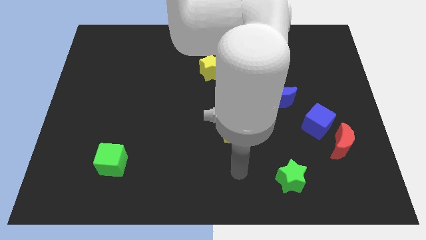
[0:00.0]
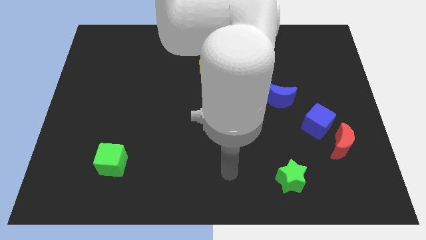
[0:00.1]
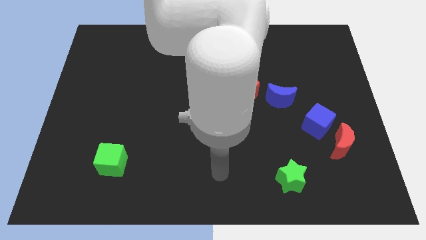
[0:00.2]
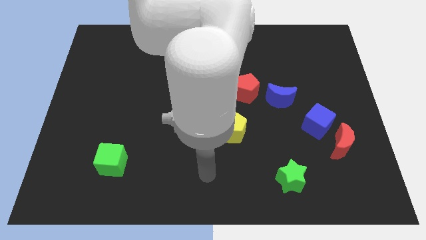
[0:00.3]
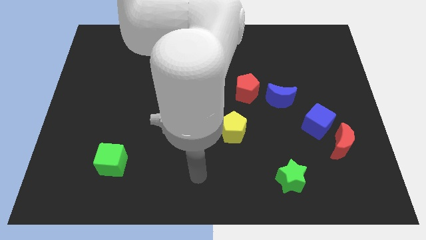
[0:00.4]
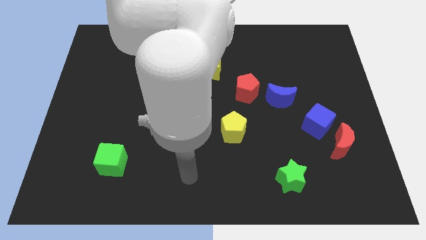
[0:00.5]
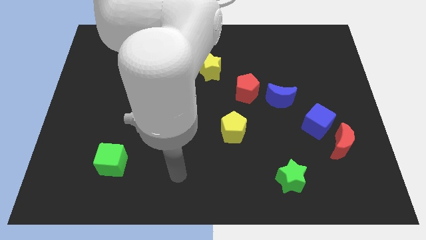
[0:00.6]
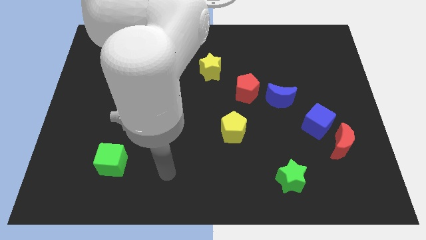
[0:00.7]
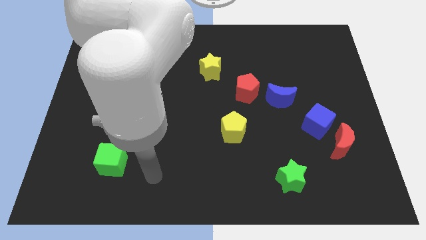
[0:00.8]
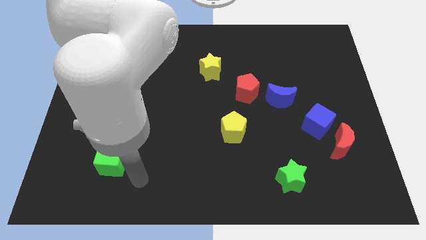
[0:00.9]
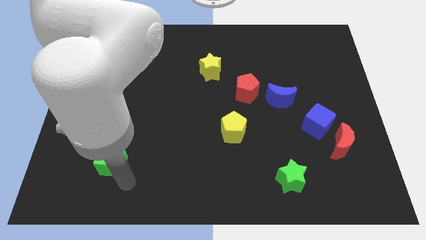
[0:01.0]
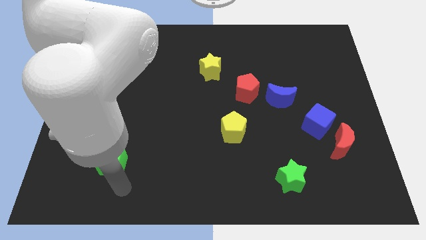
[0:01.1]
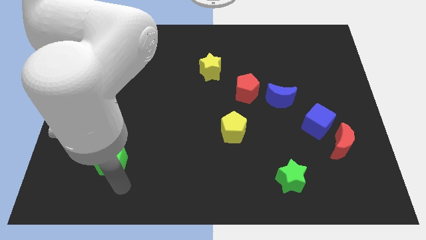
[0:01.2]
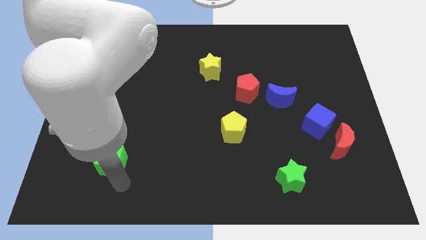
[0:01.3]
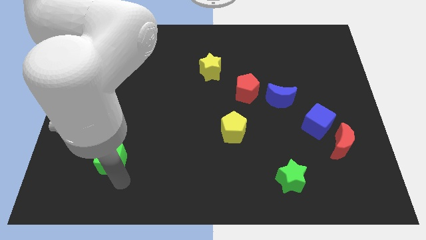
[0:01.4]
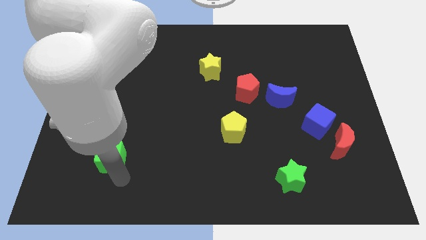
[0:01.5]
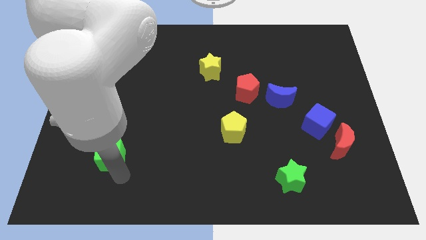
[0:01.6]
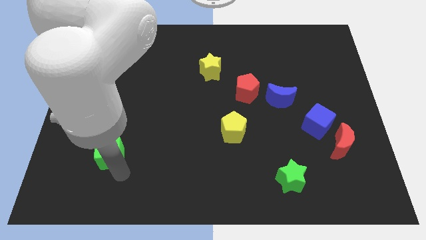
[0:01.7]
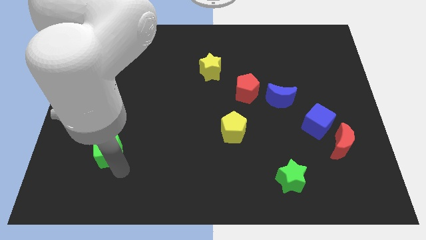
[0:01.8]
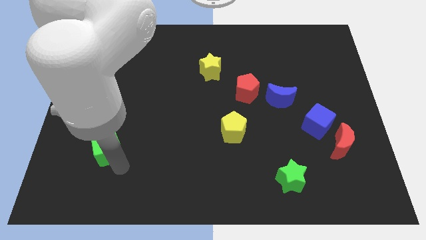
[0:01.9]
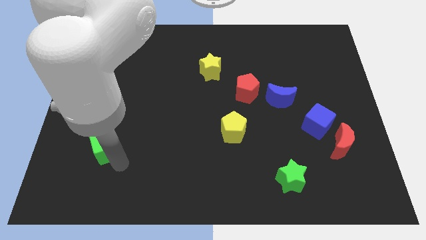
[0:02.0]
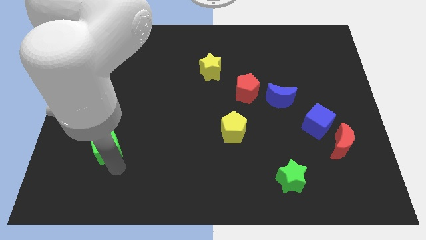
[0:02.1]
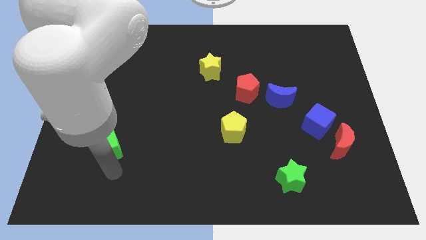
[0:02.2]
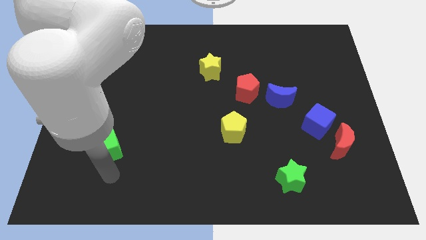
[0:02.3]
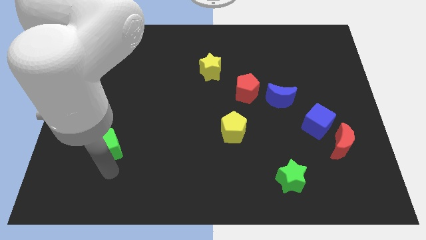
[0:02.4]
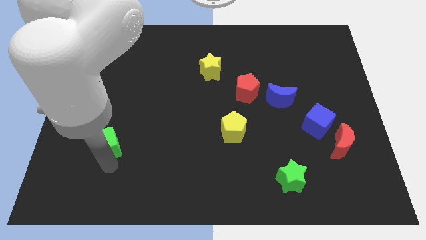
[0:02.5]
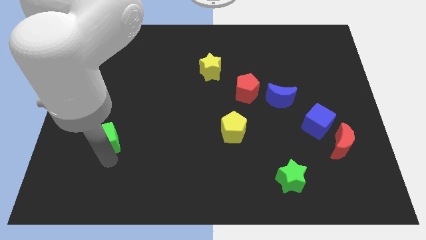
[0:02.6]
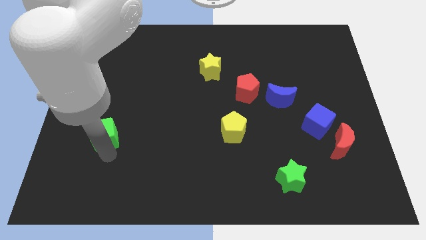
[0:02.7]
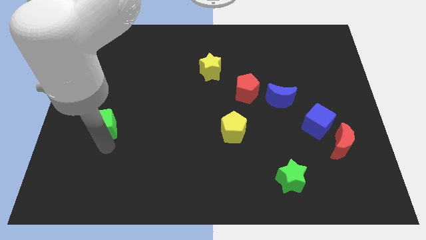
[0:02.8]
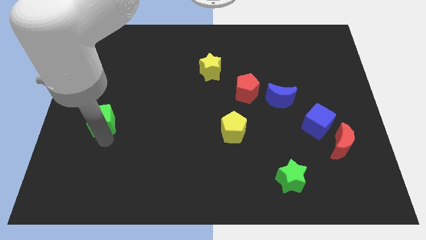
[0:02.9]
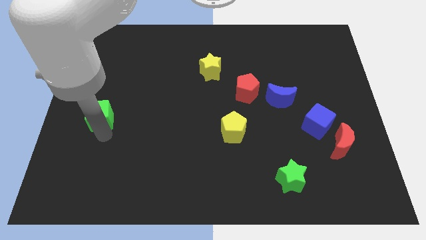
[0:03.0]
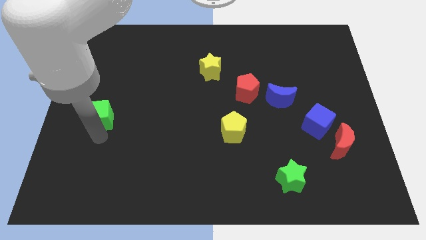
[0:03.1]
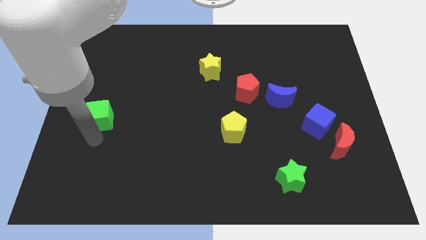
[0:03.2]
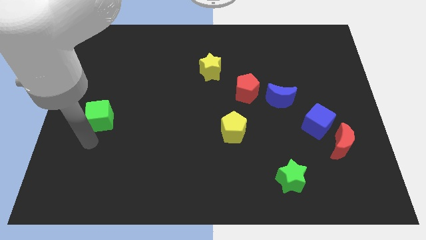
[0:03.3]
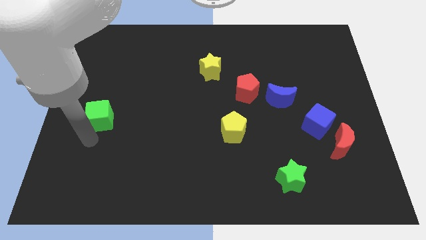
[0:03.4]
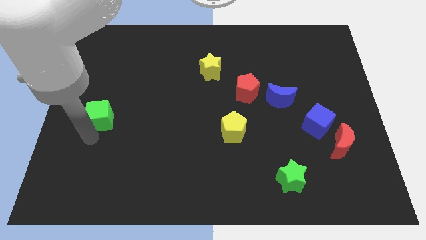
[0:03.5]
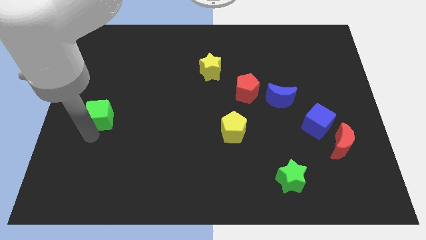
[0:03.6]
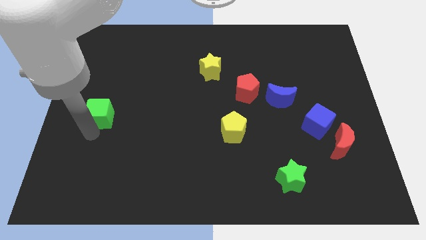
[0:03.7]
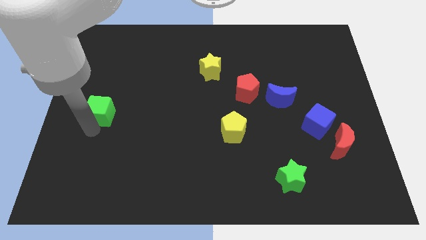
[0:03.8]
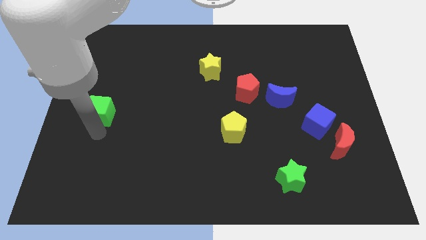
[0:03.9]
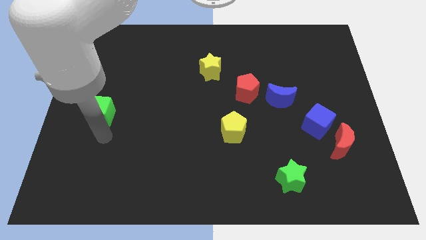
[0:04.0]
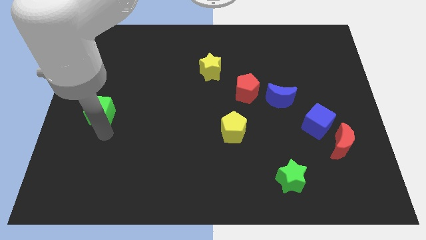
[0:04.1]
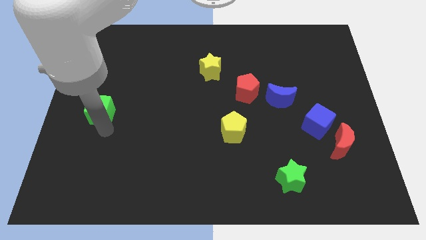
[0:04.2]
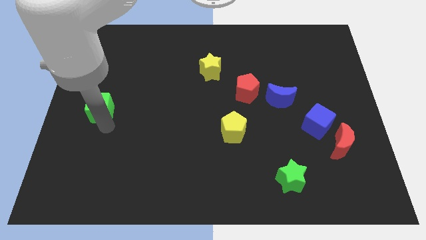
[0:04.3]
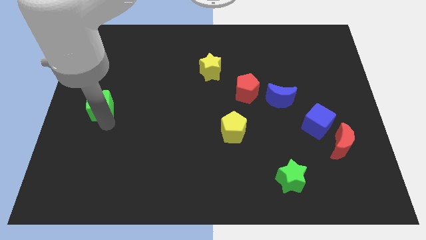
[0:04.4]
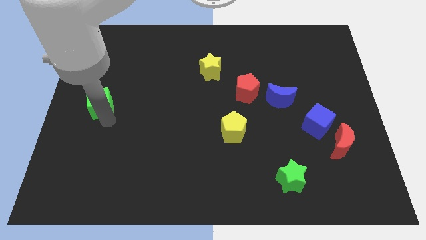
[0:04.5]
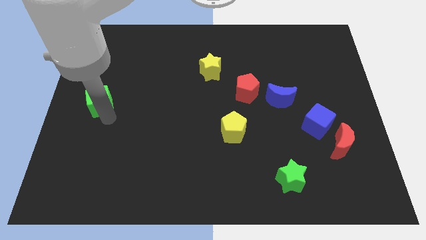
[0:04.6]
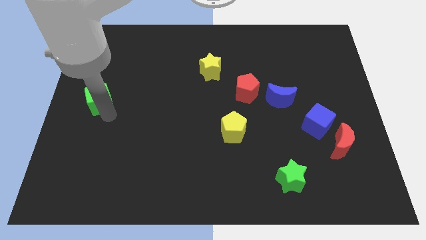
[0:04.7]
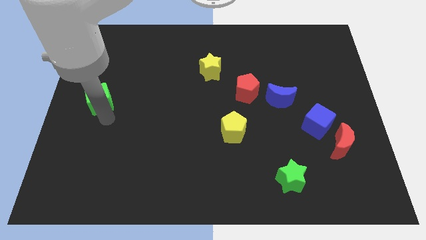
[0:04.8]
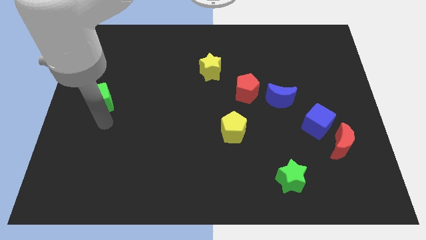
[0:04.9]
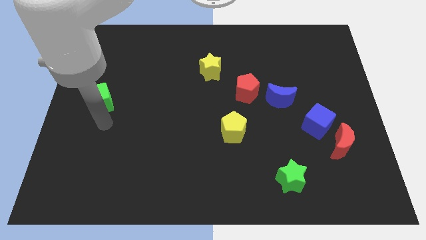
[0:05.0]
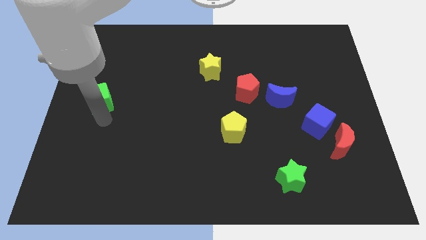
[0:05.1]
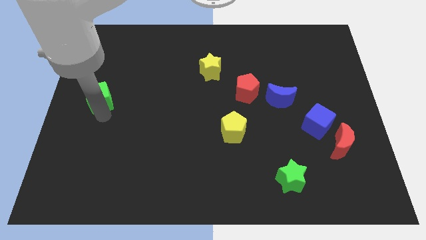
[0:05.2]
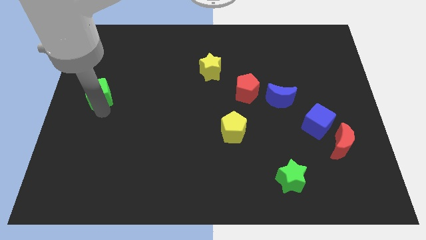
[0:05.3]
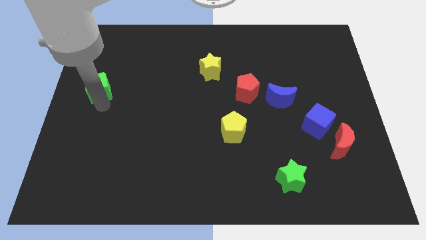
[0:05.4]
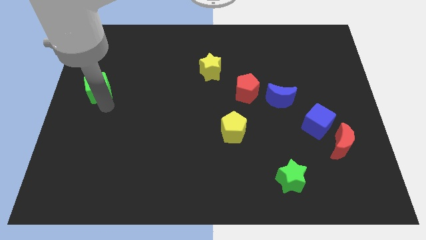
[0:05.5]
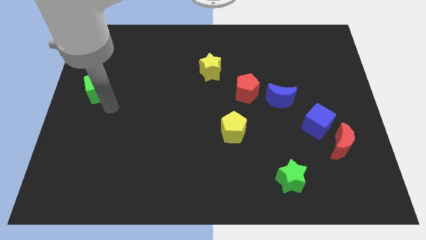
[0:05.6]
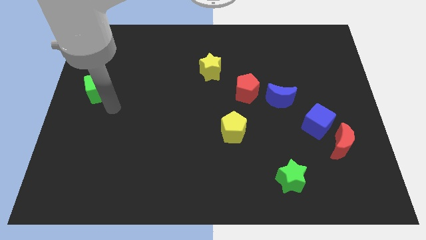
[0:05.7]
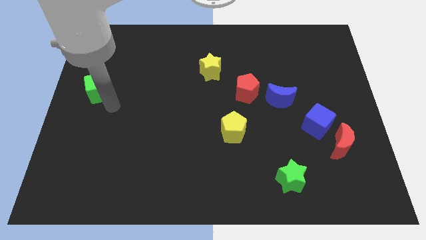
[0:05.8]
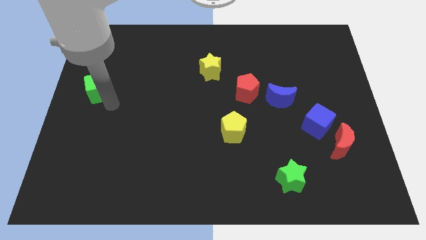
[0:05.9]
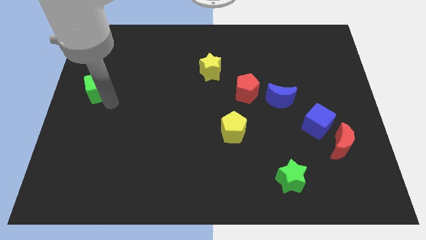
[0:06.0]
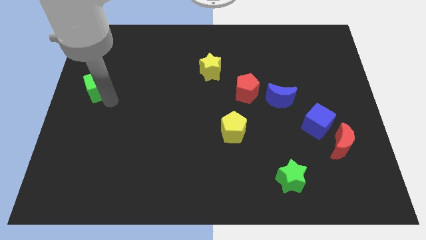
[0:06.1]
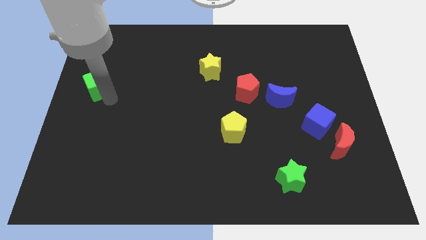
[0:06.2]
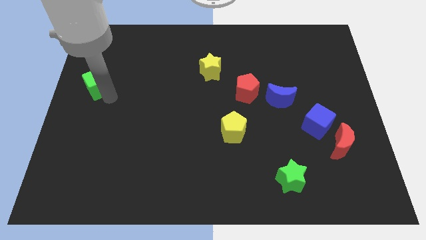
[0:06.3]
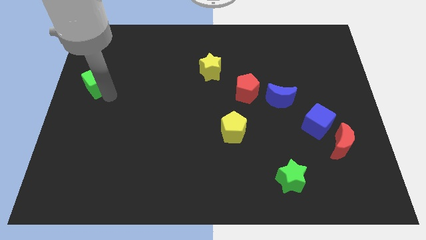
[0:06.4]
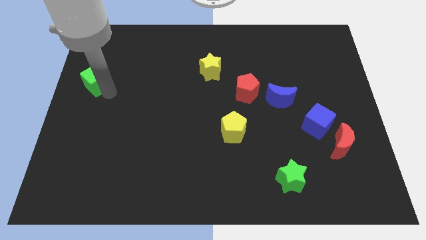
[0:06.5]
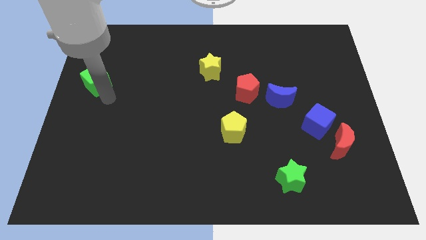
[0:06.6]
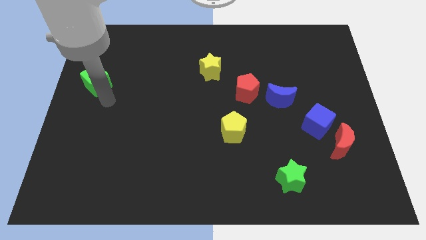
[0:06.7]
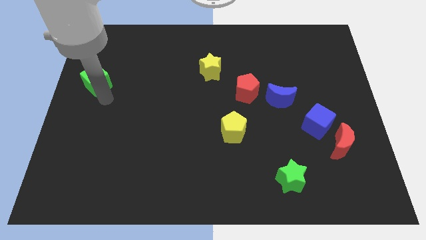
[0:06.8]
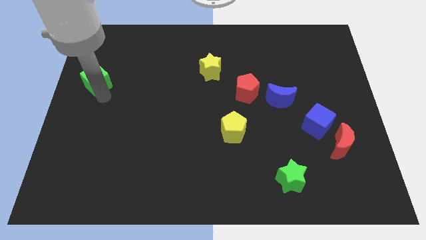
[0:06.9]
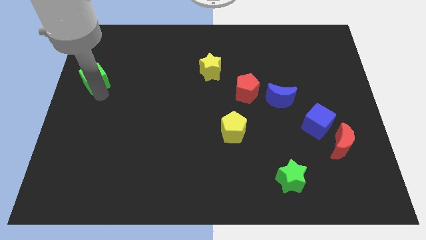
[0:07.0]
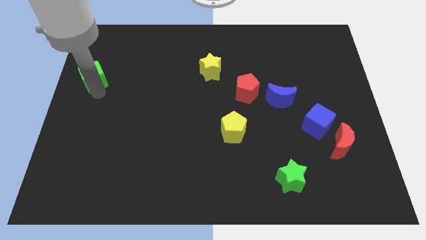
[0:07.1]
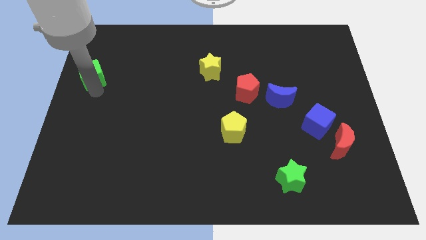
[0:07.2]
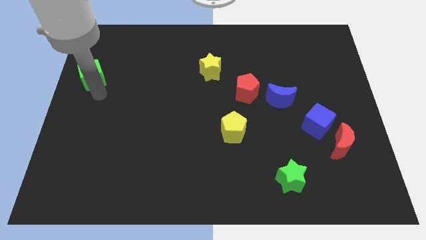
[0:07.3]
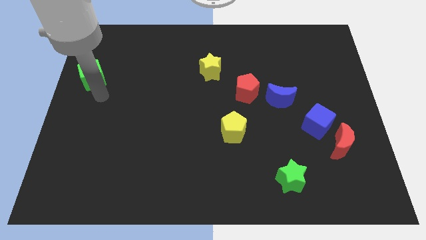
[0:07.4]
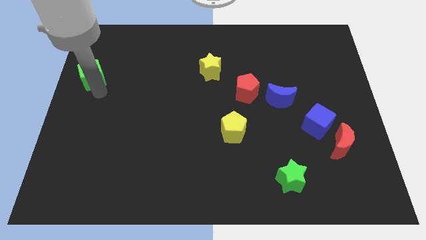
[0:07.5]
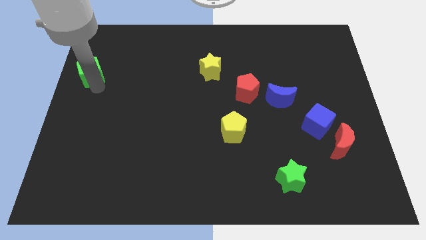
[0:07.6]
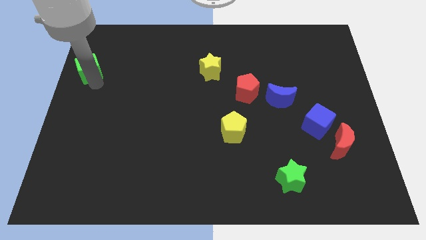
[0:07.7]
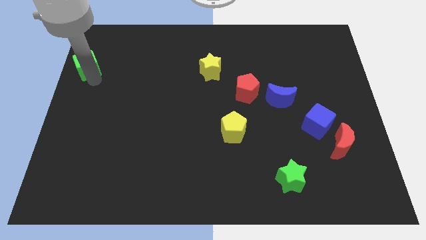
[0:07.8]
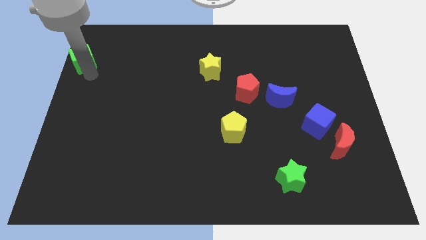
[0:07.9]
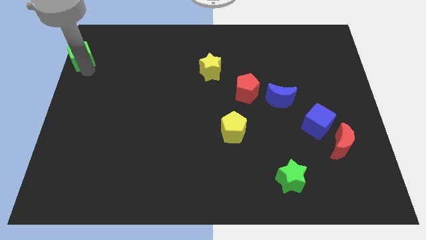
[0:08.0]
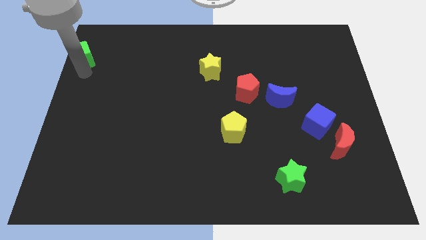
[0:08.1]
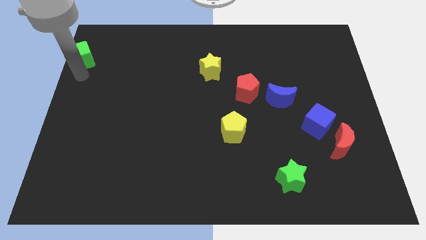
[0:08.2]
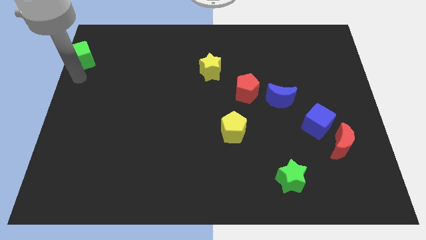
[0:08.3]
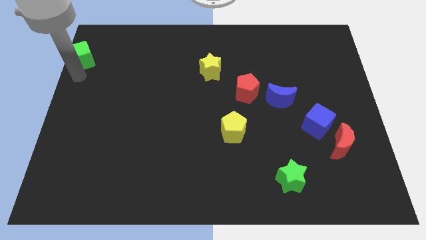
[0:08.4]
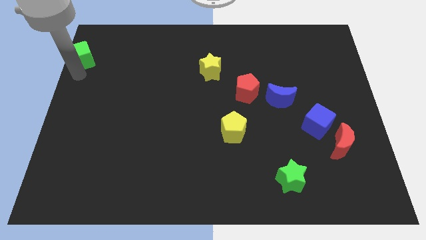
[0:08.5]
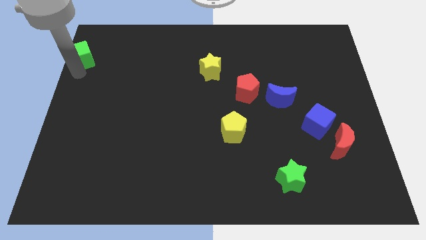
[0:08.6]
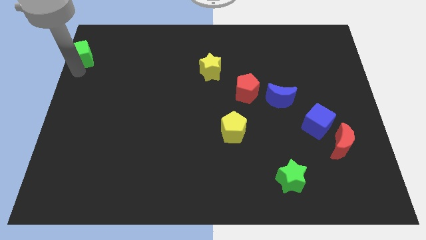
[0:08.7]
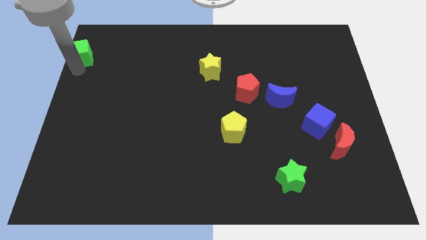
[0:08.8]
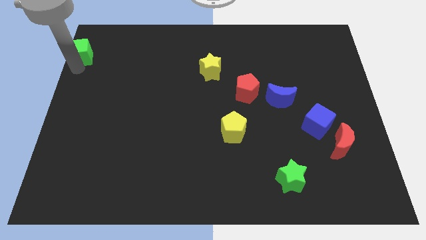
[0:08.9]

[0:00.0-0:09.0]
slide the green cube to the top left
